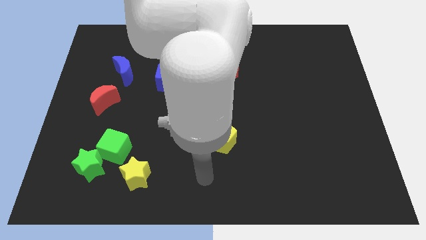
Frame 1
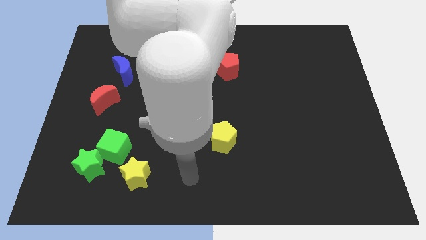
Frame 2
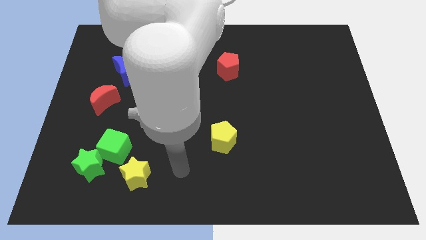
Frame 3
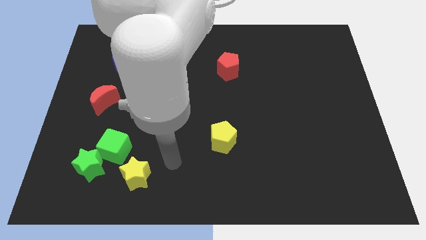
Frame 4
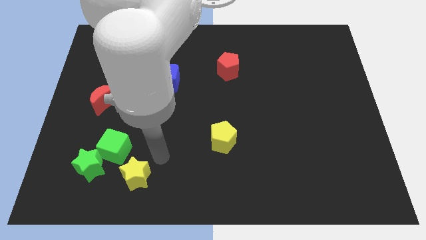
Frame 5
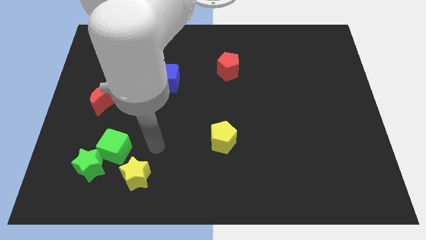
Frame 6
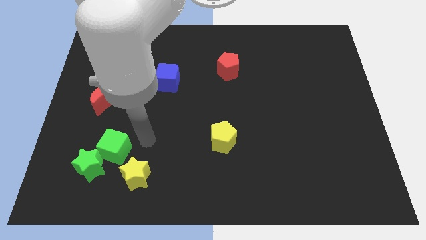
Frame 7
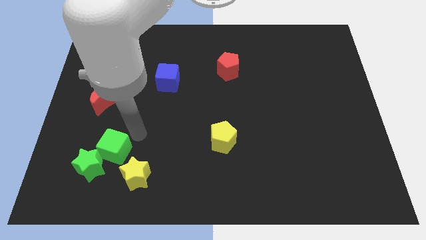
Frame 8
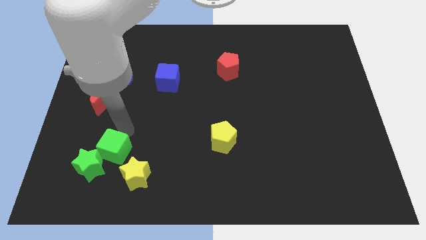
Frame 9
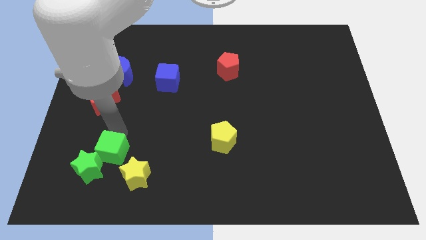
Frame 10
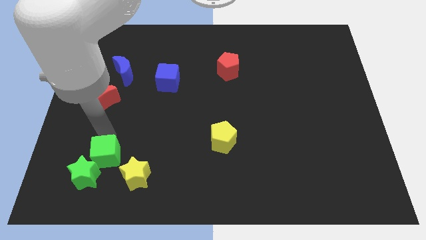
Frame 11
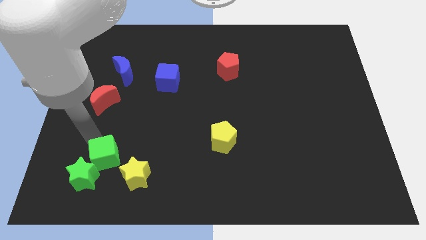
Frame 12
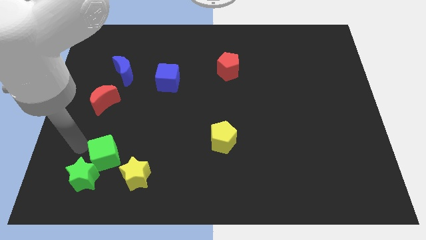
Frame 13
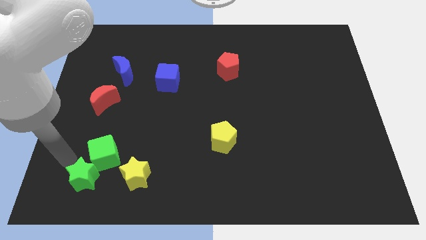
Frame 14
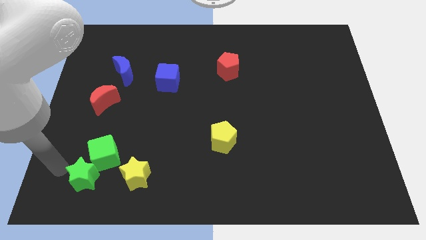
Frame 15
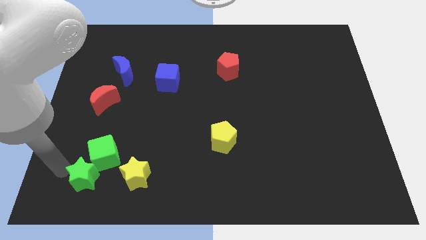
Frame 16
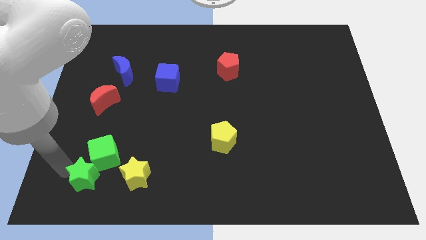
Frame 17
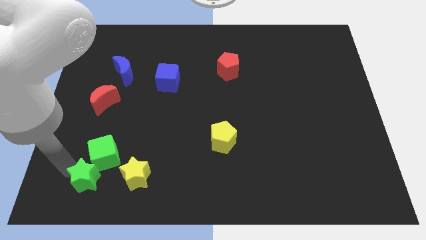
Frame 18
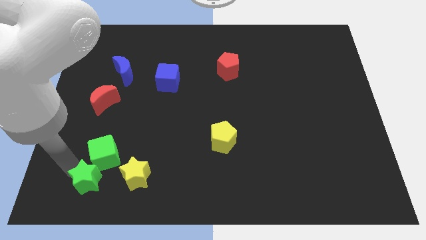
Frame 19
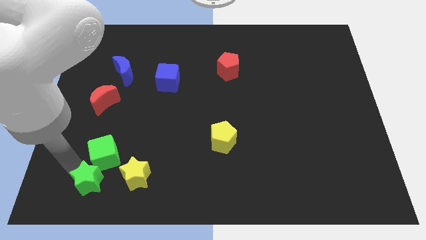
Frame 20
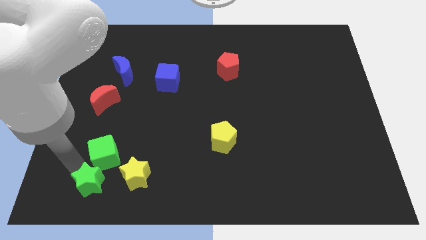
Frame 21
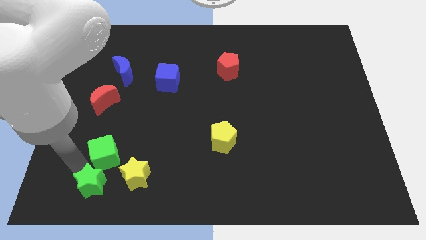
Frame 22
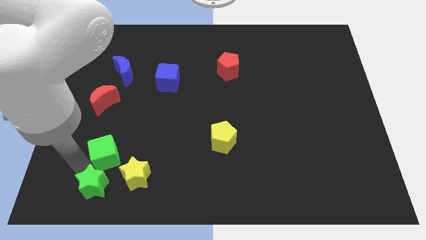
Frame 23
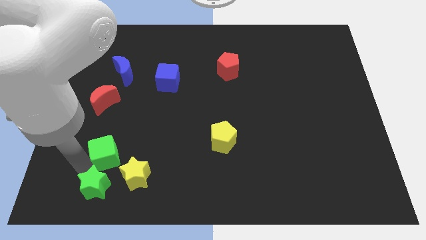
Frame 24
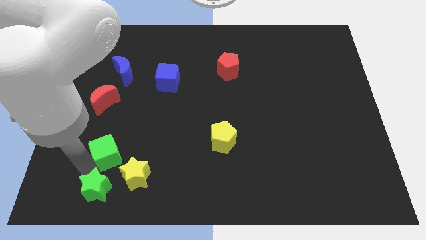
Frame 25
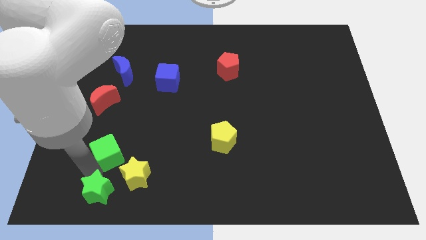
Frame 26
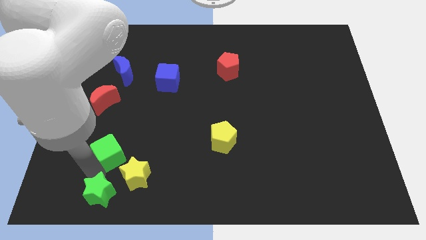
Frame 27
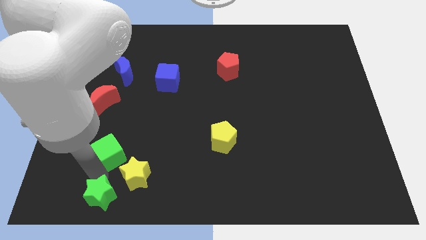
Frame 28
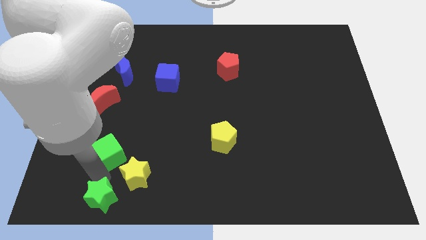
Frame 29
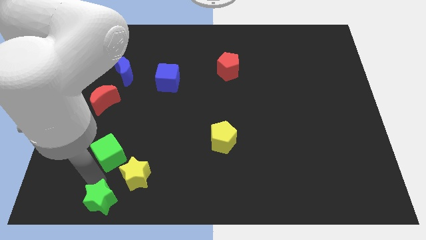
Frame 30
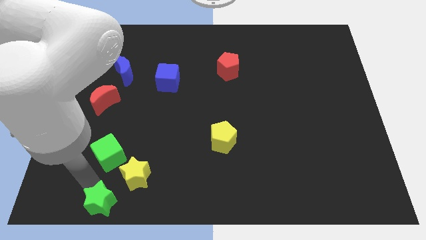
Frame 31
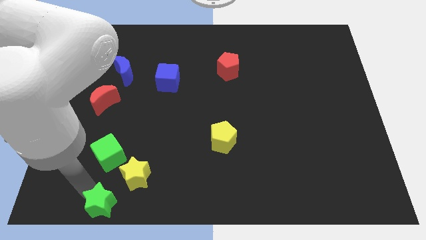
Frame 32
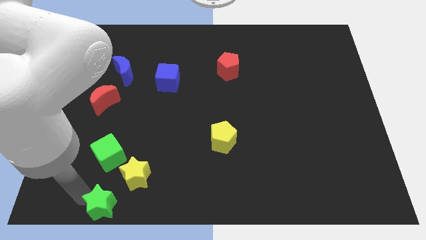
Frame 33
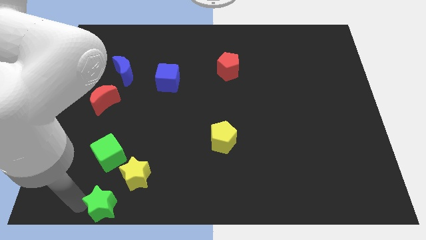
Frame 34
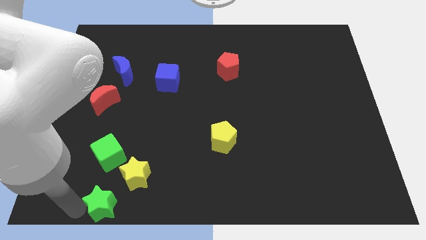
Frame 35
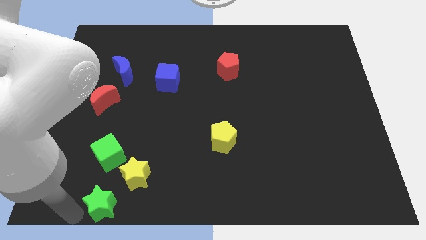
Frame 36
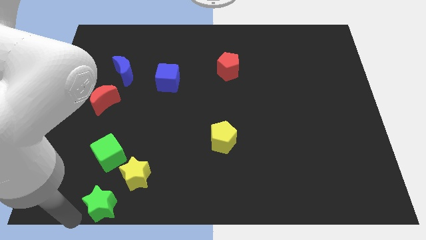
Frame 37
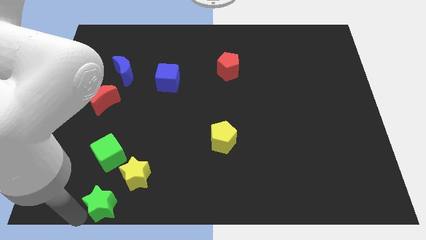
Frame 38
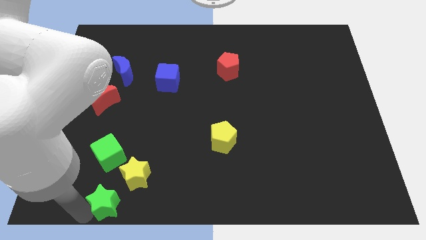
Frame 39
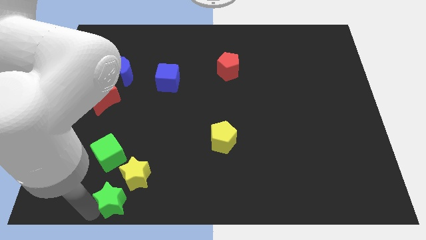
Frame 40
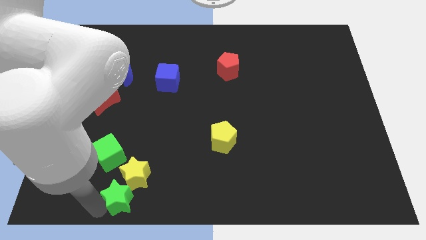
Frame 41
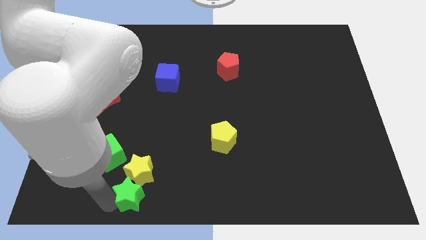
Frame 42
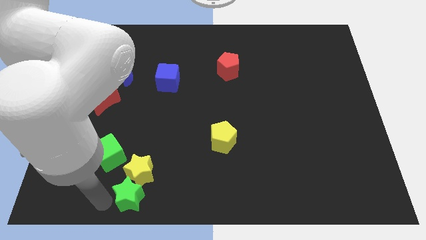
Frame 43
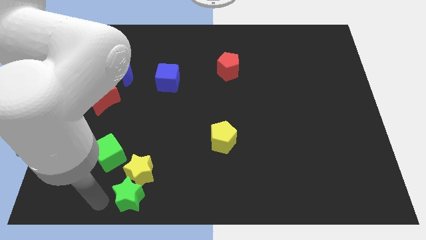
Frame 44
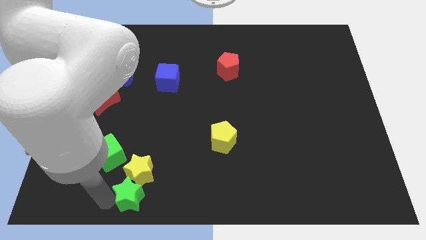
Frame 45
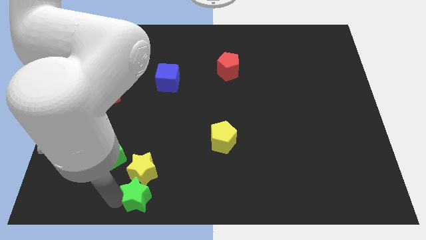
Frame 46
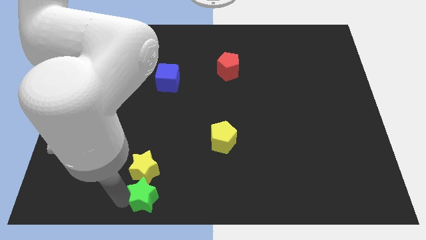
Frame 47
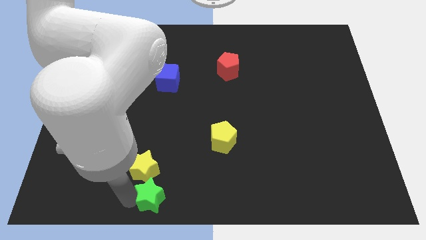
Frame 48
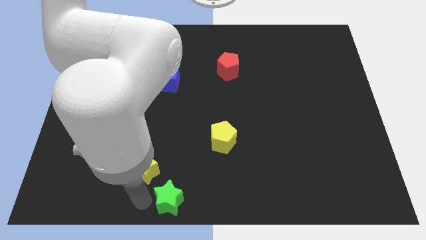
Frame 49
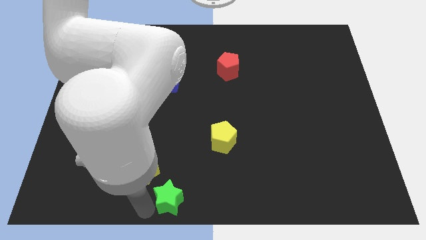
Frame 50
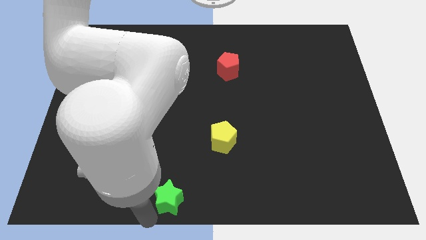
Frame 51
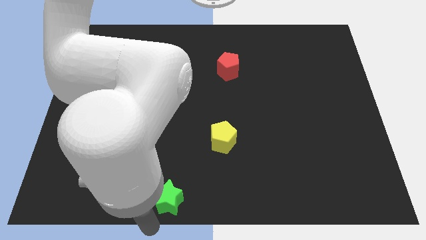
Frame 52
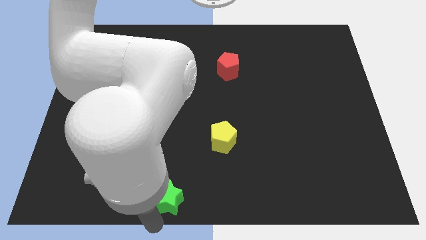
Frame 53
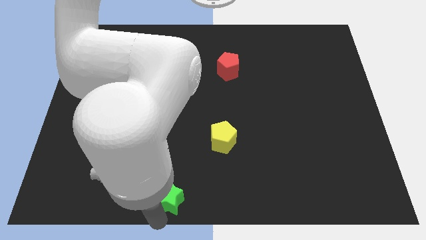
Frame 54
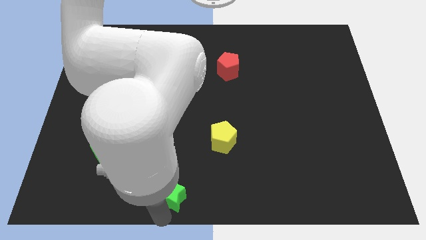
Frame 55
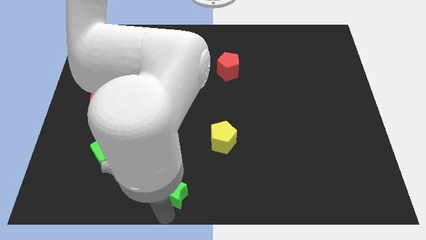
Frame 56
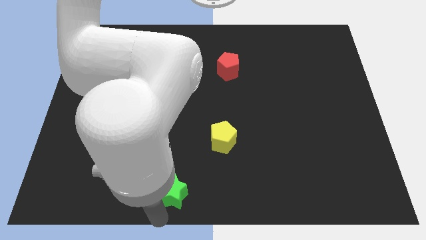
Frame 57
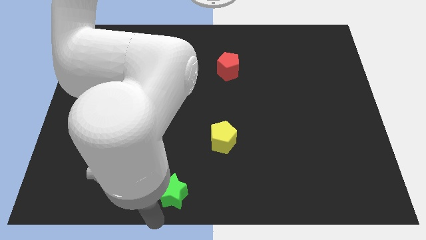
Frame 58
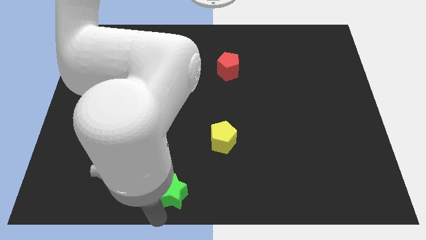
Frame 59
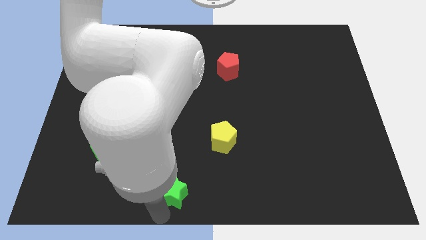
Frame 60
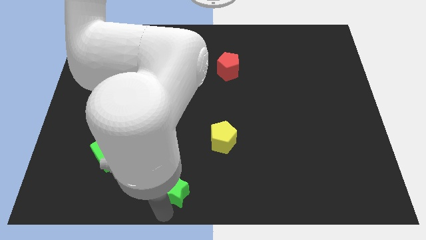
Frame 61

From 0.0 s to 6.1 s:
put the green star to the right of the yellow star

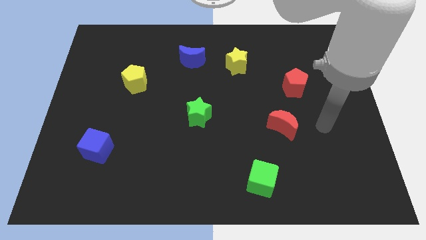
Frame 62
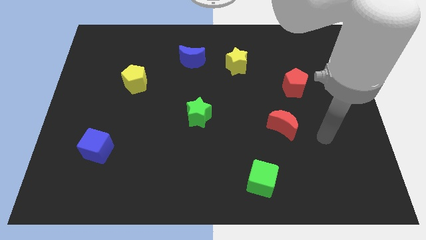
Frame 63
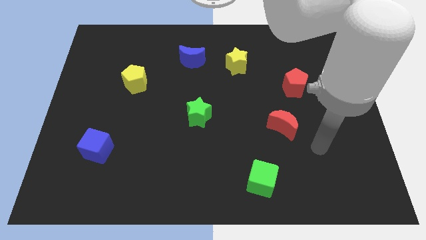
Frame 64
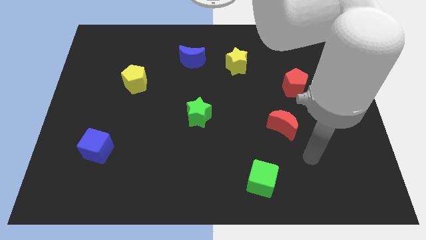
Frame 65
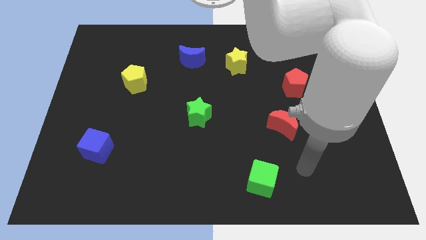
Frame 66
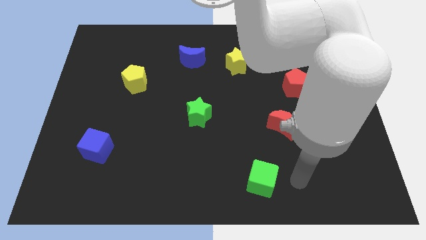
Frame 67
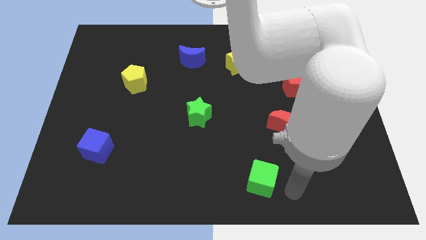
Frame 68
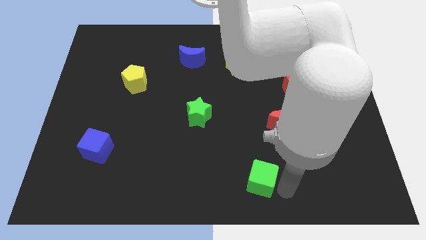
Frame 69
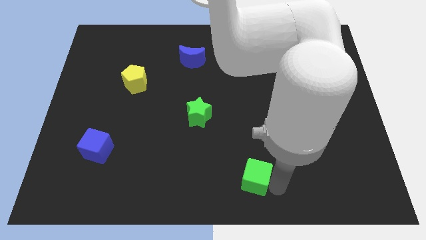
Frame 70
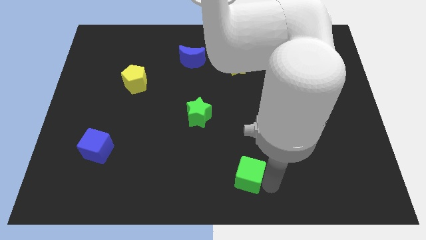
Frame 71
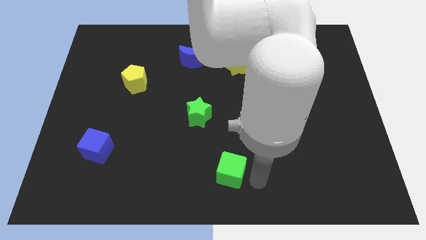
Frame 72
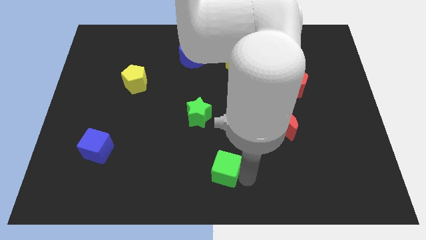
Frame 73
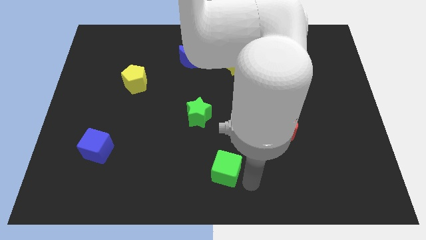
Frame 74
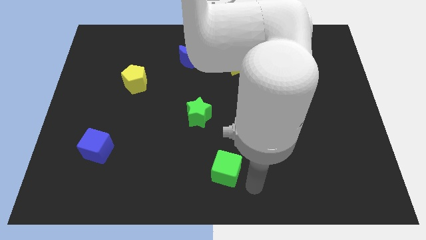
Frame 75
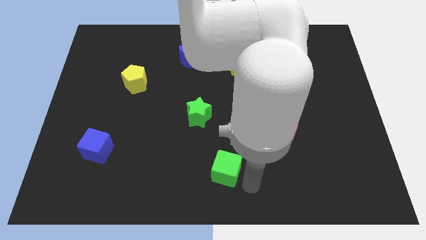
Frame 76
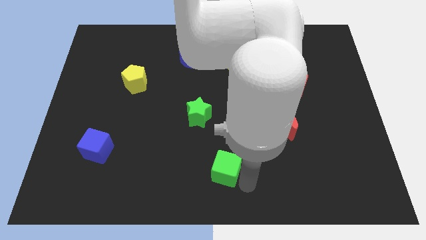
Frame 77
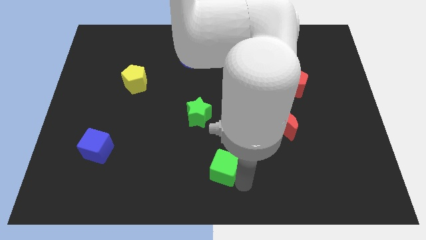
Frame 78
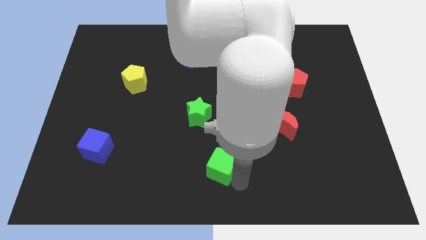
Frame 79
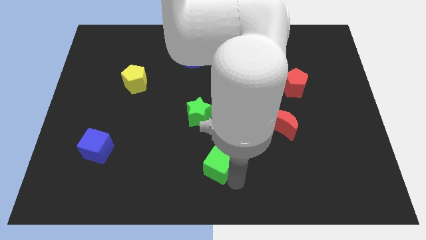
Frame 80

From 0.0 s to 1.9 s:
put the green cube to the bottom of the green star
